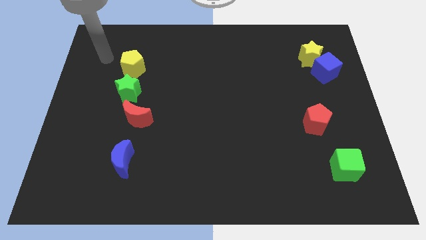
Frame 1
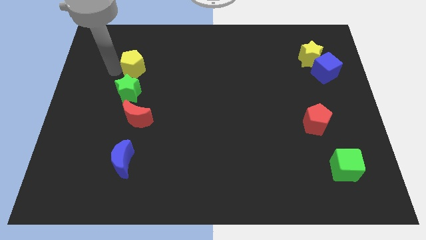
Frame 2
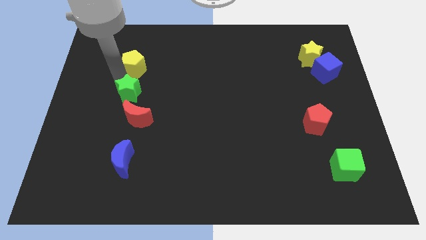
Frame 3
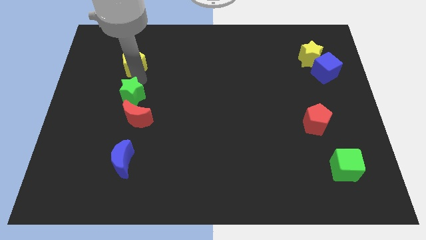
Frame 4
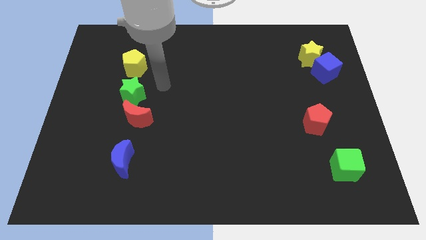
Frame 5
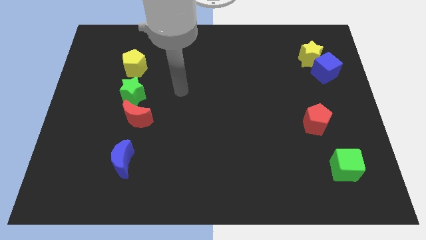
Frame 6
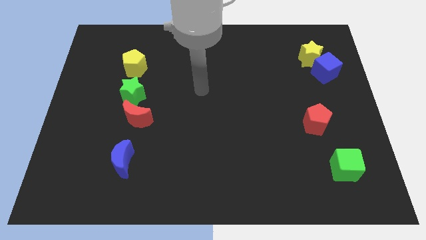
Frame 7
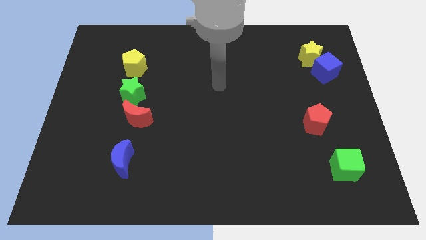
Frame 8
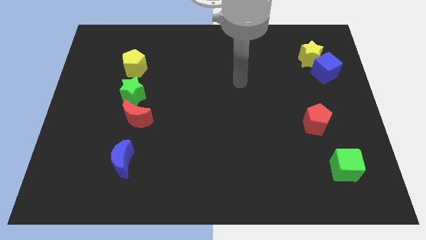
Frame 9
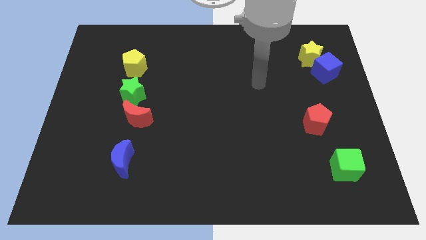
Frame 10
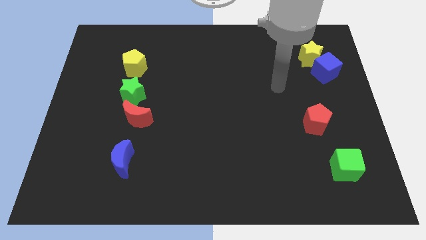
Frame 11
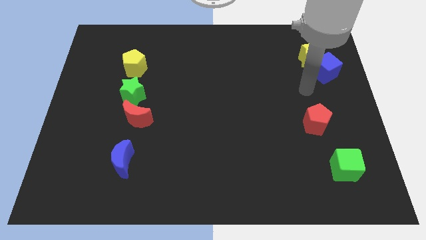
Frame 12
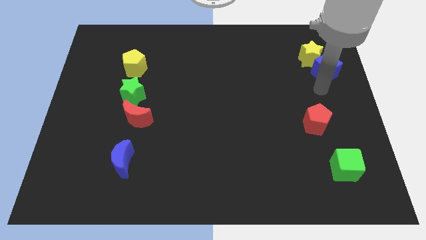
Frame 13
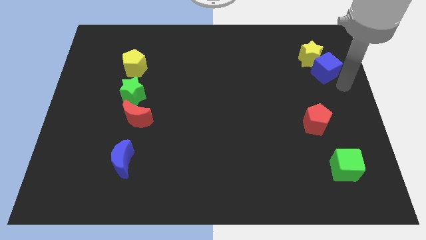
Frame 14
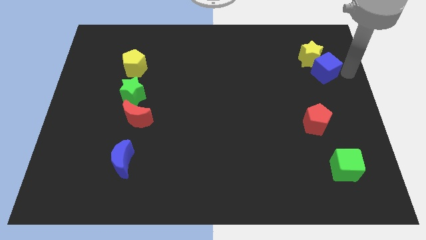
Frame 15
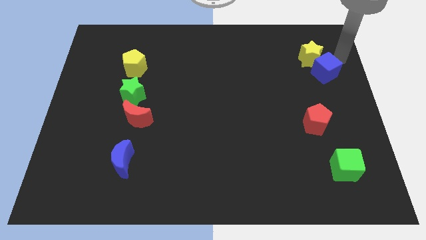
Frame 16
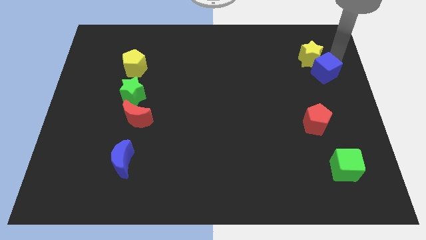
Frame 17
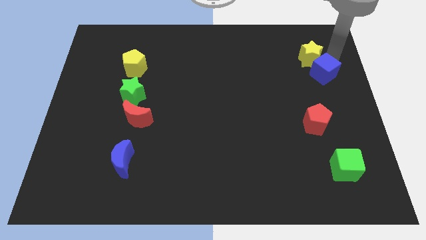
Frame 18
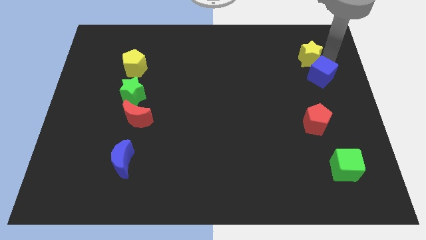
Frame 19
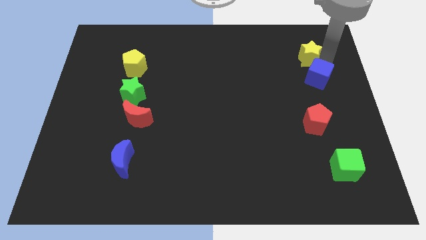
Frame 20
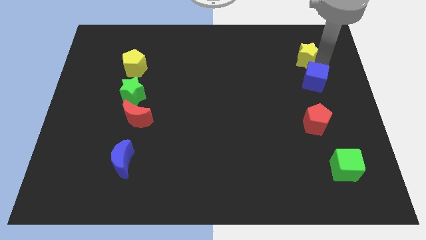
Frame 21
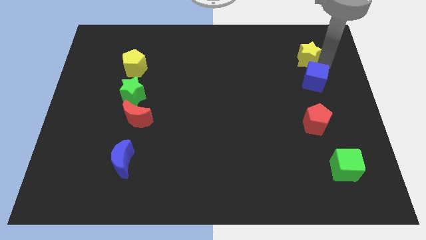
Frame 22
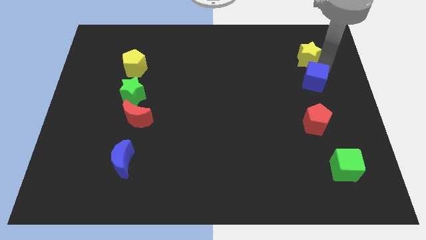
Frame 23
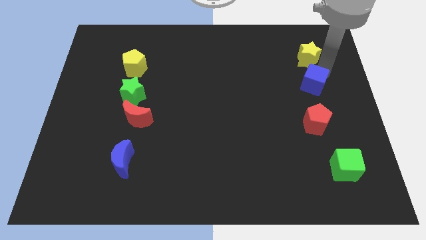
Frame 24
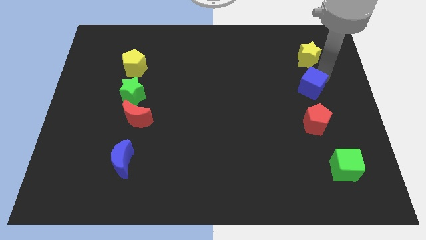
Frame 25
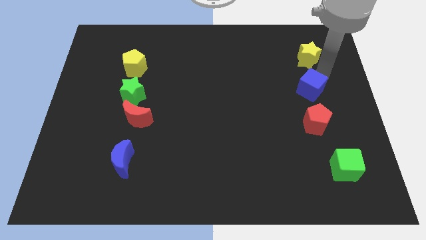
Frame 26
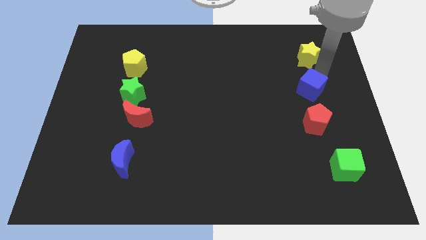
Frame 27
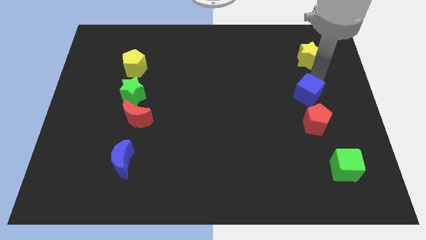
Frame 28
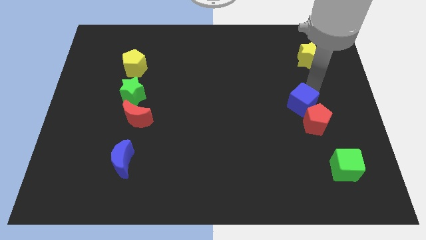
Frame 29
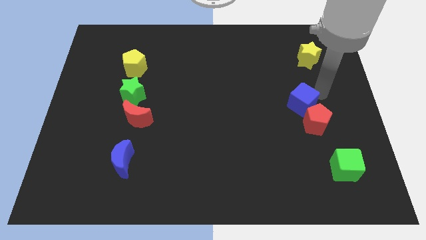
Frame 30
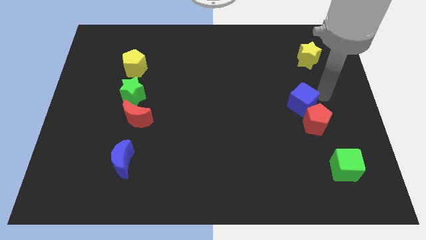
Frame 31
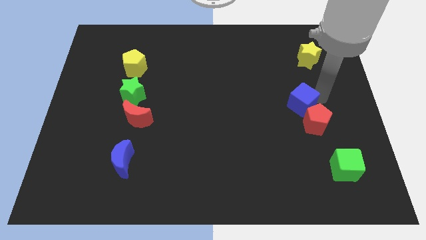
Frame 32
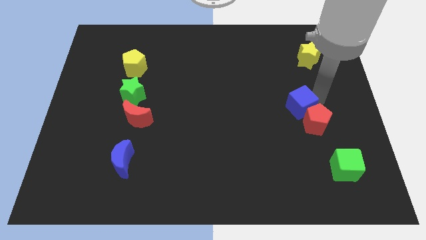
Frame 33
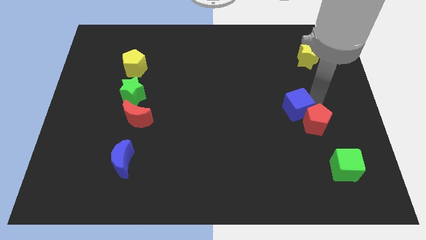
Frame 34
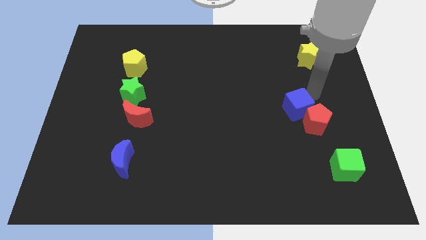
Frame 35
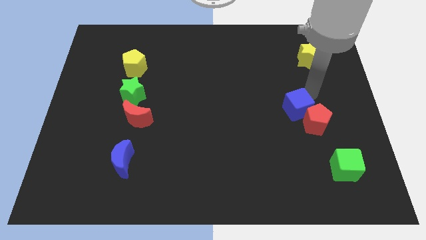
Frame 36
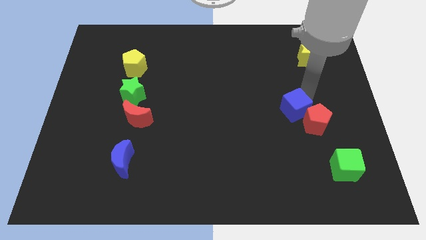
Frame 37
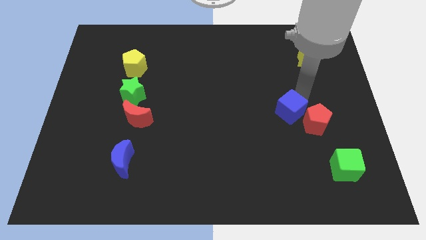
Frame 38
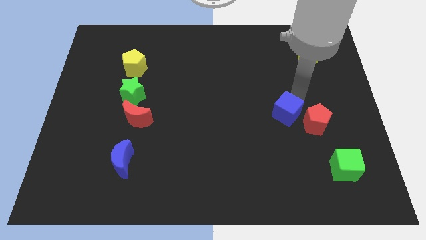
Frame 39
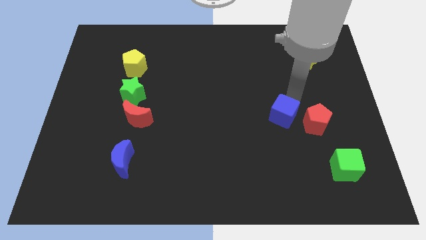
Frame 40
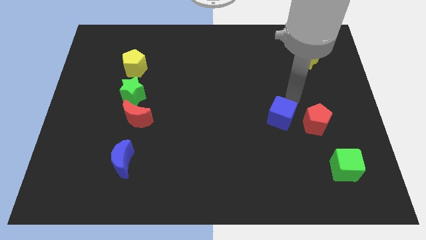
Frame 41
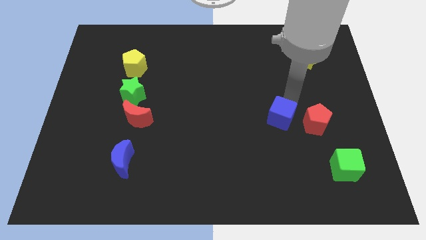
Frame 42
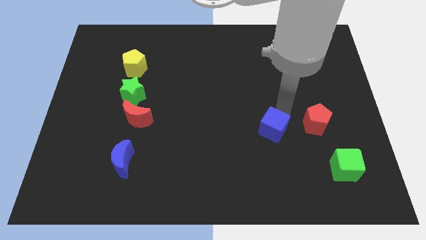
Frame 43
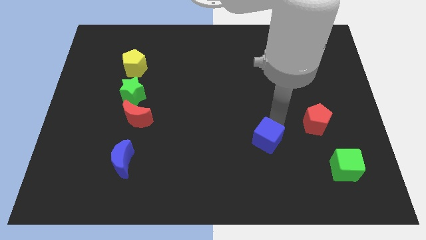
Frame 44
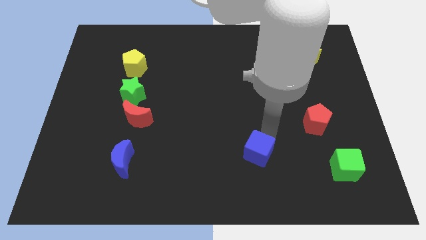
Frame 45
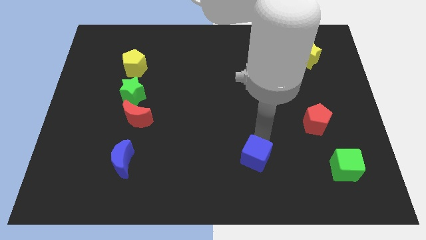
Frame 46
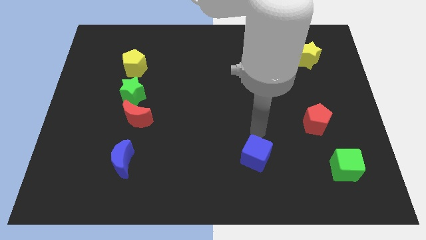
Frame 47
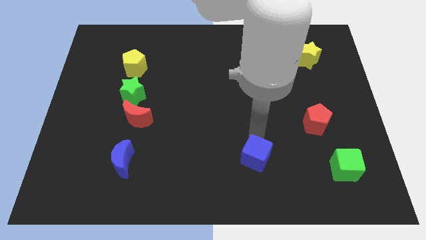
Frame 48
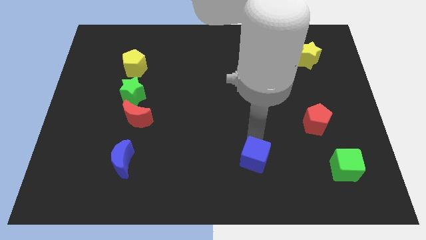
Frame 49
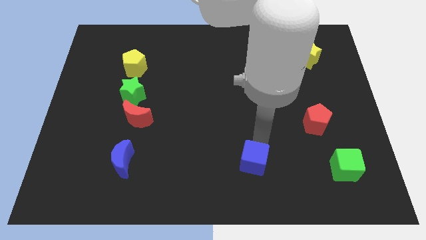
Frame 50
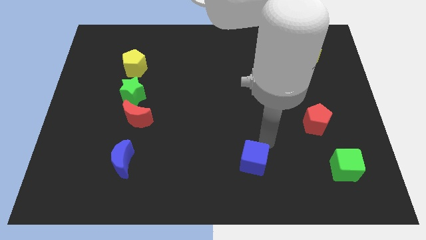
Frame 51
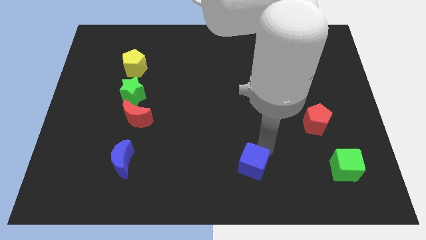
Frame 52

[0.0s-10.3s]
slide the blue cube to the bottom

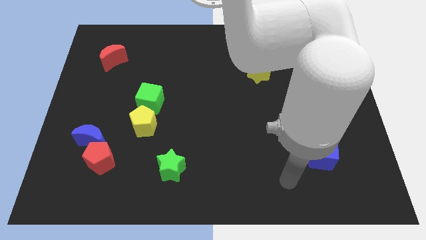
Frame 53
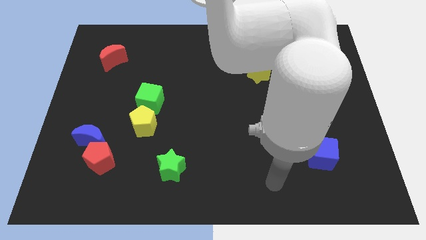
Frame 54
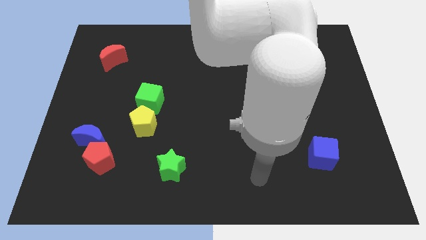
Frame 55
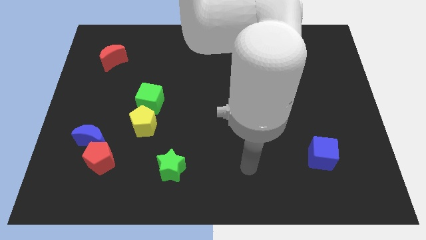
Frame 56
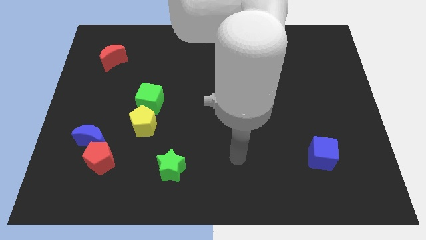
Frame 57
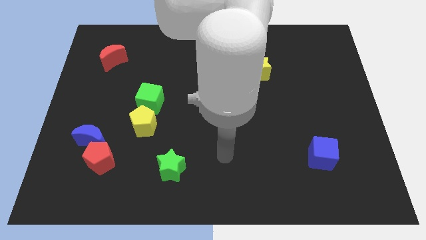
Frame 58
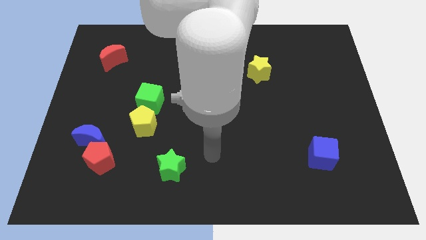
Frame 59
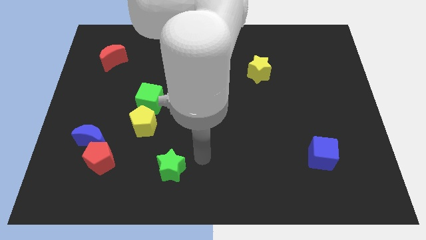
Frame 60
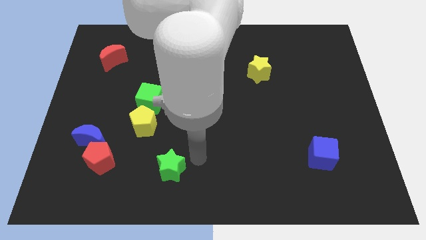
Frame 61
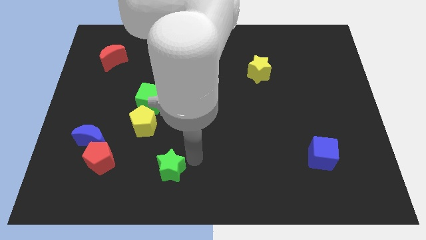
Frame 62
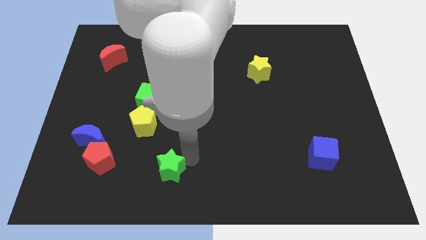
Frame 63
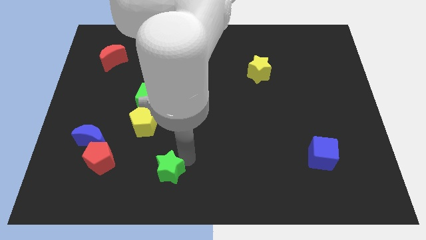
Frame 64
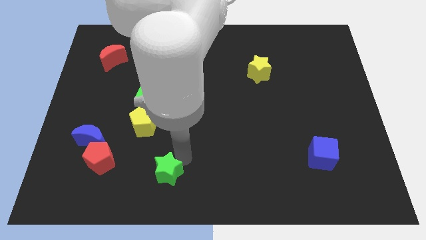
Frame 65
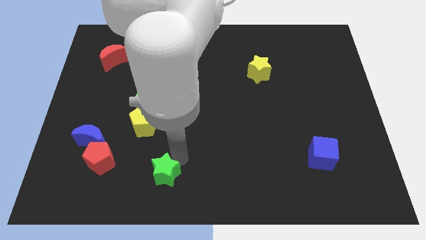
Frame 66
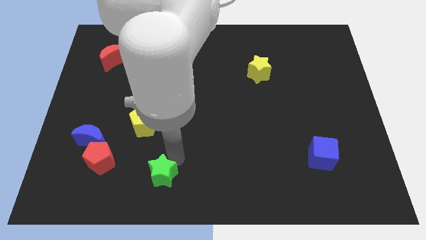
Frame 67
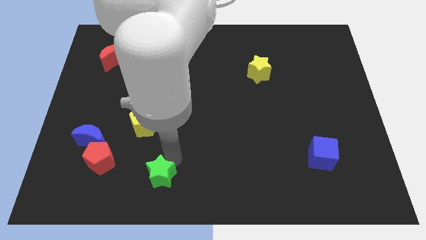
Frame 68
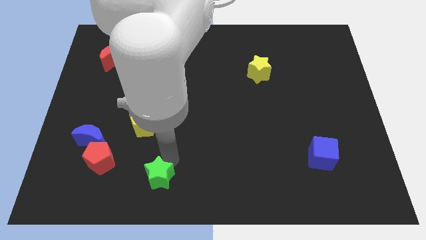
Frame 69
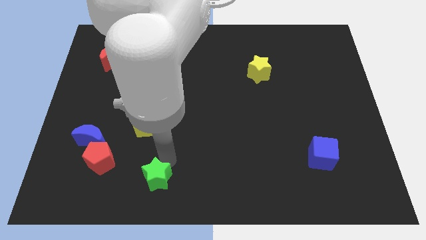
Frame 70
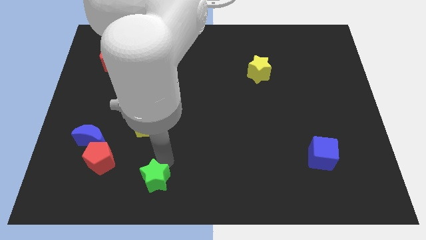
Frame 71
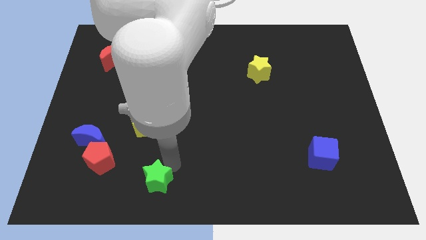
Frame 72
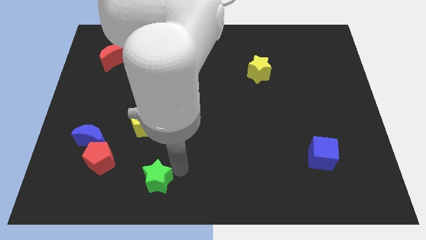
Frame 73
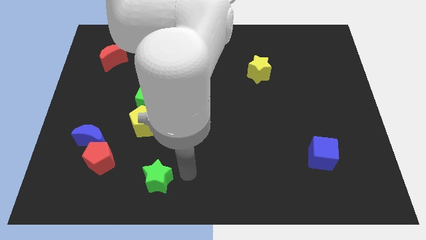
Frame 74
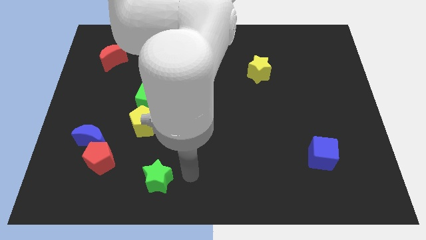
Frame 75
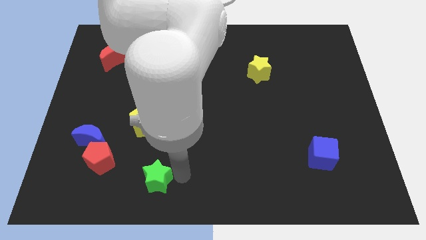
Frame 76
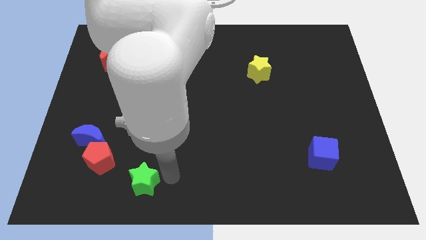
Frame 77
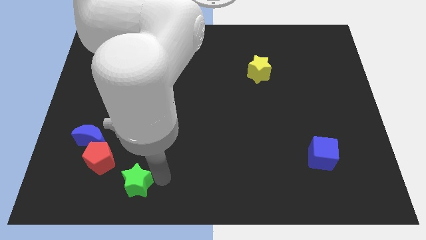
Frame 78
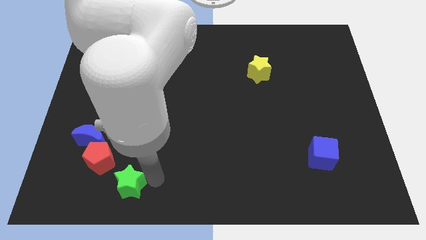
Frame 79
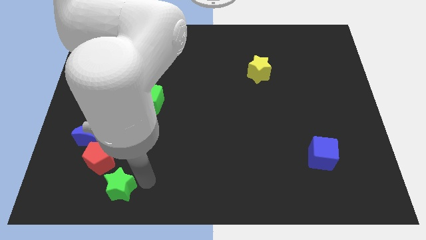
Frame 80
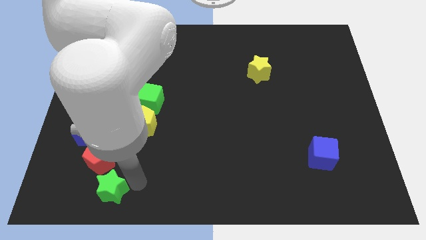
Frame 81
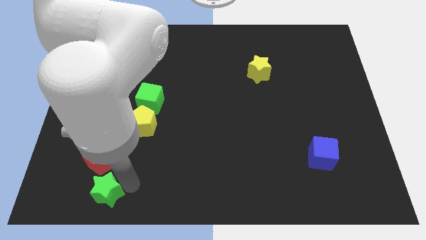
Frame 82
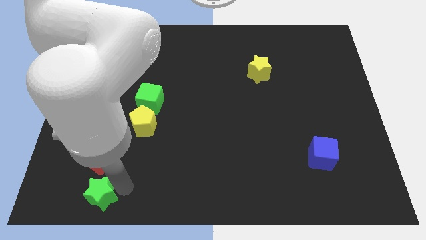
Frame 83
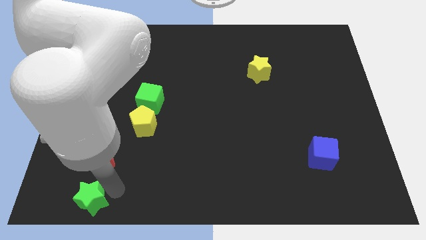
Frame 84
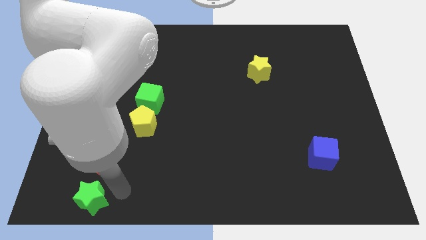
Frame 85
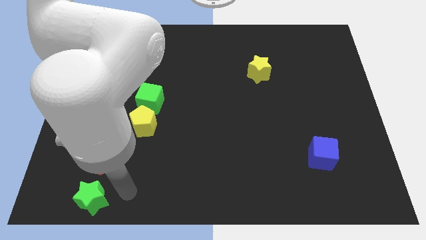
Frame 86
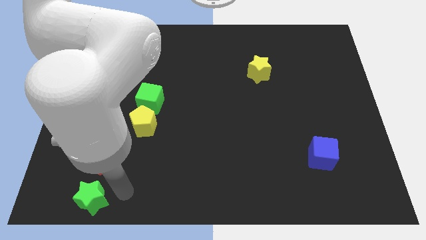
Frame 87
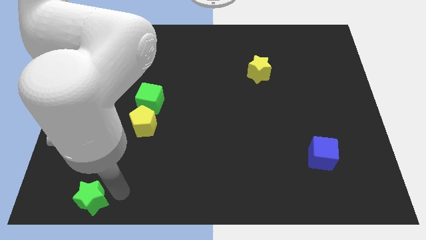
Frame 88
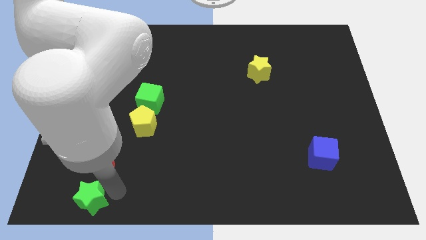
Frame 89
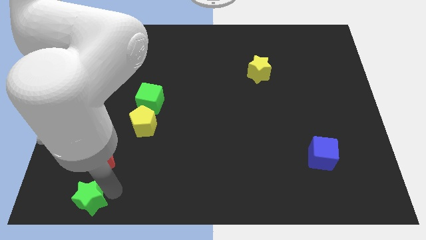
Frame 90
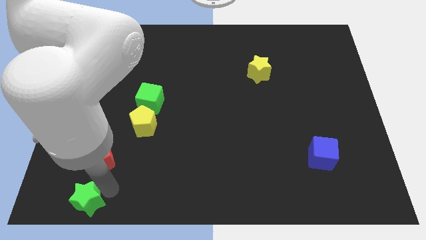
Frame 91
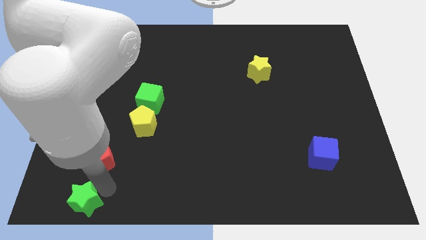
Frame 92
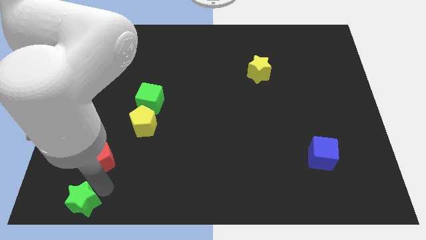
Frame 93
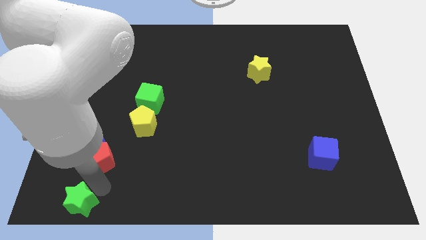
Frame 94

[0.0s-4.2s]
move the green star to the lower left corner
